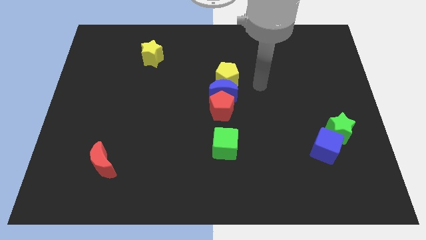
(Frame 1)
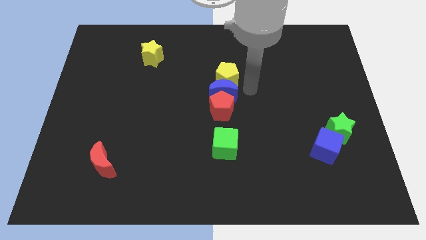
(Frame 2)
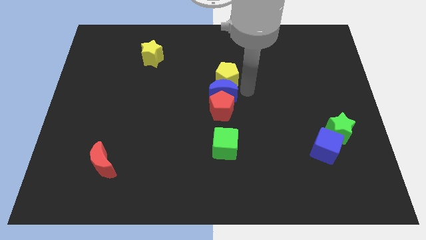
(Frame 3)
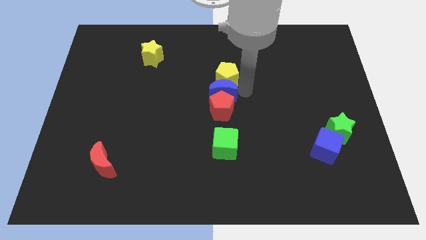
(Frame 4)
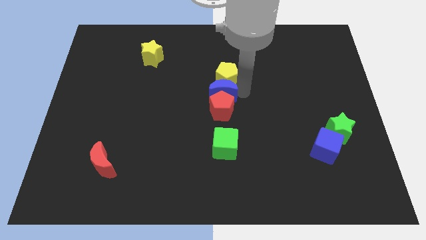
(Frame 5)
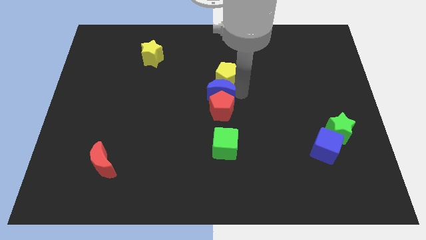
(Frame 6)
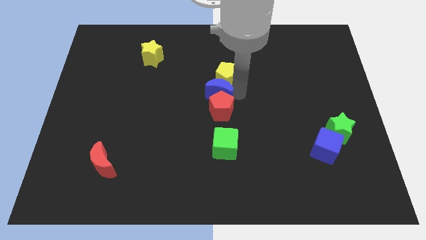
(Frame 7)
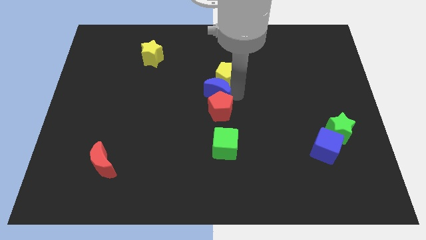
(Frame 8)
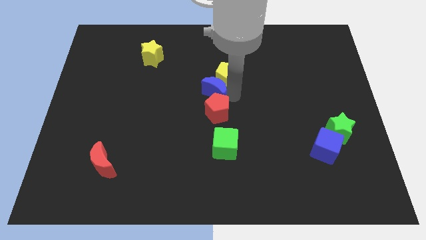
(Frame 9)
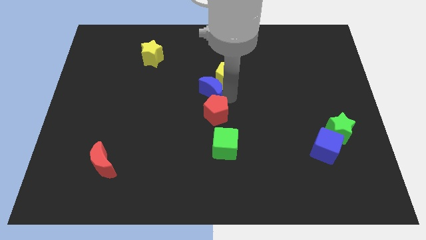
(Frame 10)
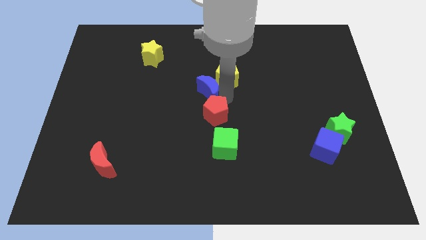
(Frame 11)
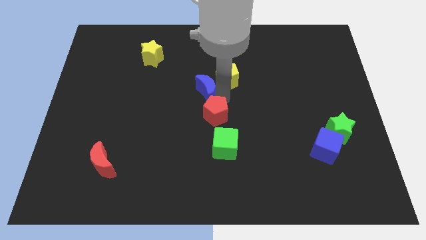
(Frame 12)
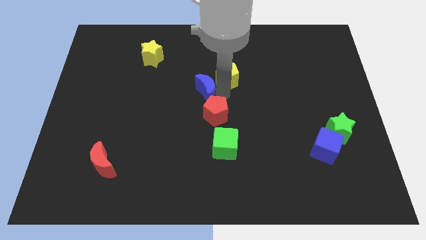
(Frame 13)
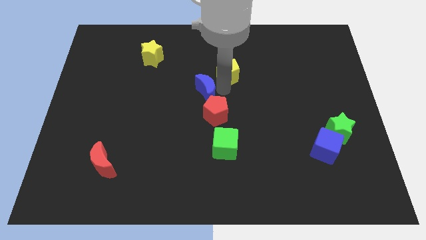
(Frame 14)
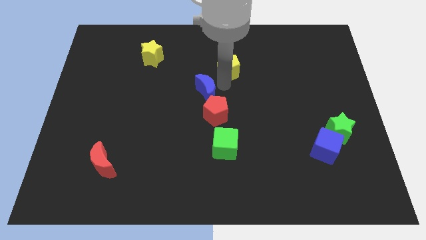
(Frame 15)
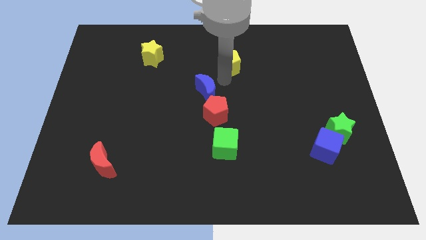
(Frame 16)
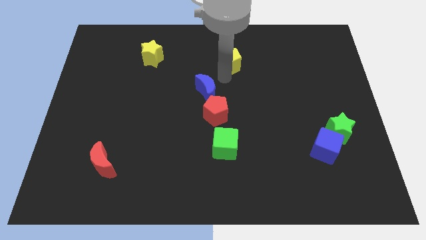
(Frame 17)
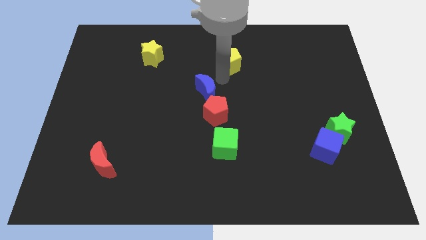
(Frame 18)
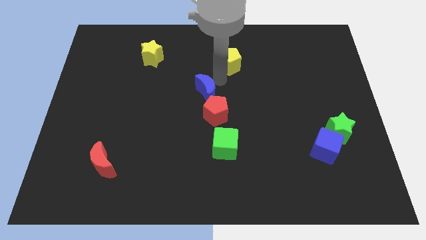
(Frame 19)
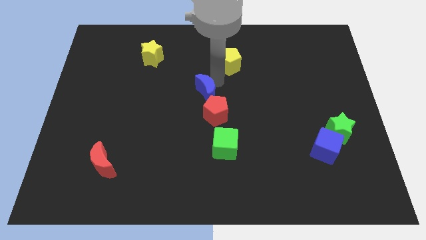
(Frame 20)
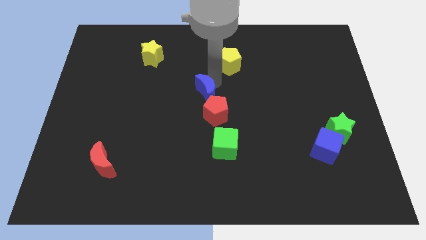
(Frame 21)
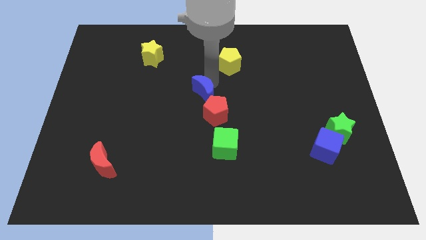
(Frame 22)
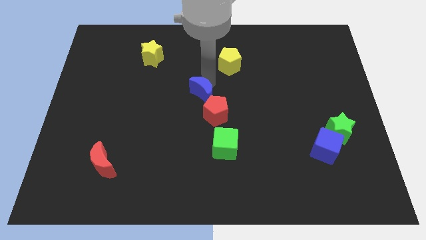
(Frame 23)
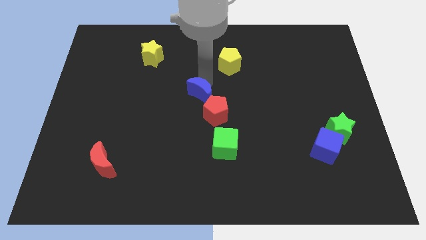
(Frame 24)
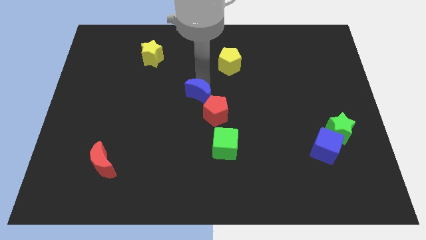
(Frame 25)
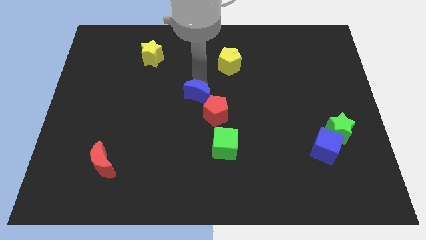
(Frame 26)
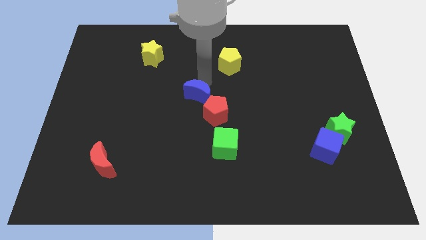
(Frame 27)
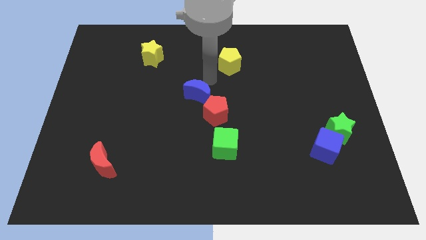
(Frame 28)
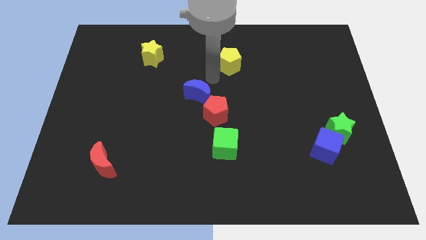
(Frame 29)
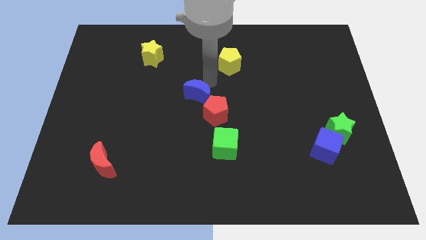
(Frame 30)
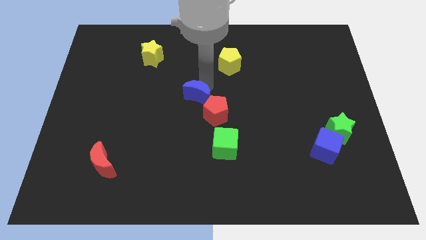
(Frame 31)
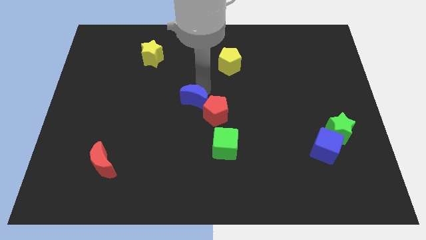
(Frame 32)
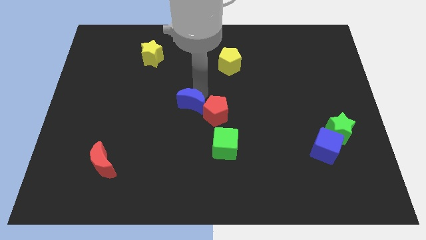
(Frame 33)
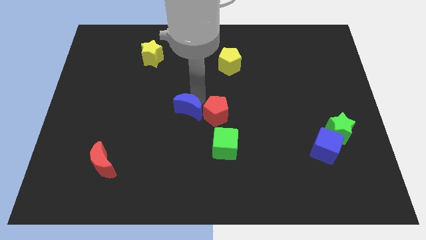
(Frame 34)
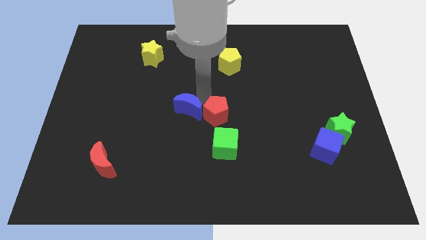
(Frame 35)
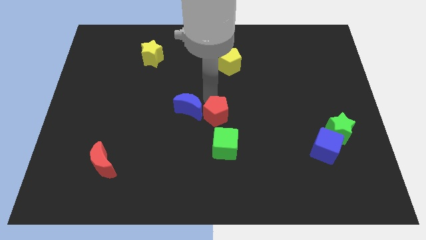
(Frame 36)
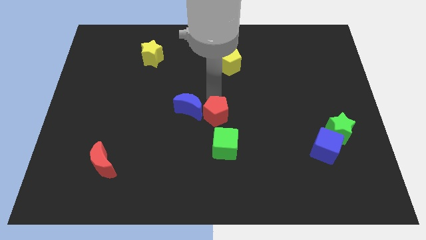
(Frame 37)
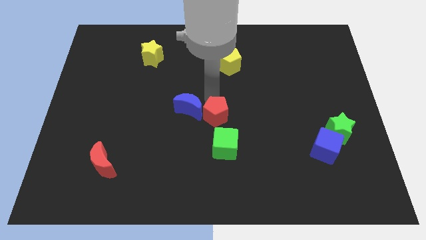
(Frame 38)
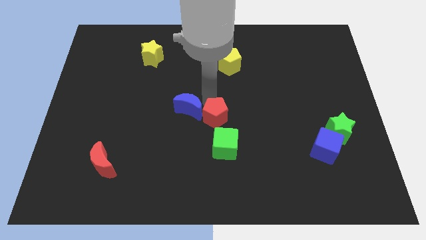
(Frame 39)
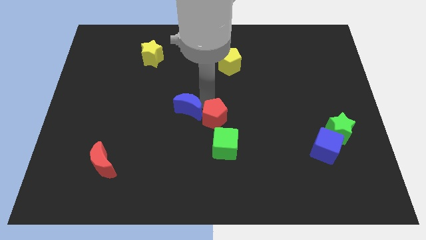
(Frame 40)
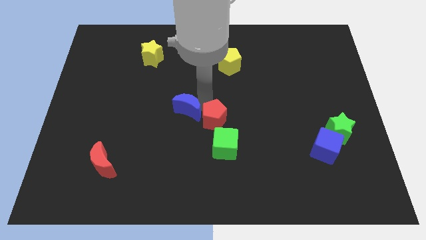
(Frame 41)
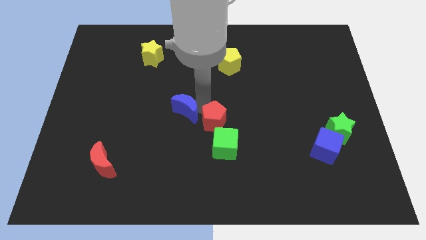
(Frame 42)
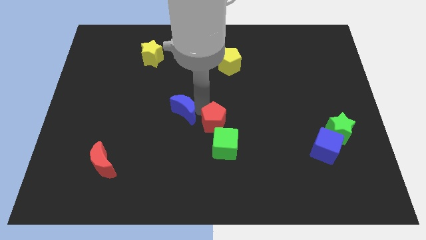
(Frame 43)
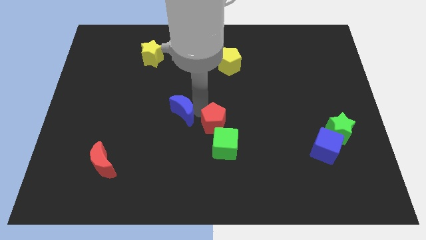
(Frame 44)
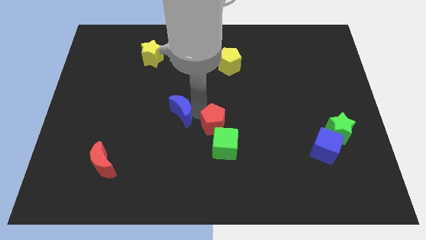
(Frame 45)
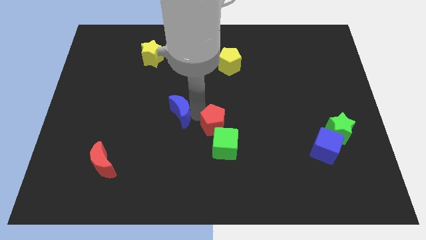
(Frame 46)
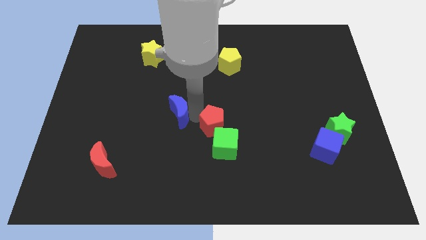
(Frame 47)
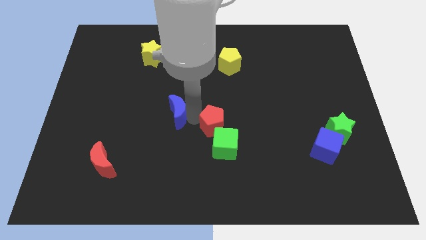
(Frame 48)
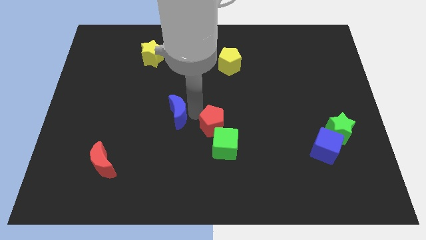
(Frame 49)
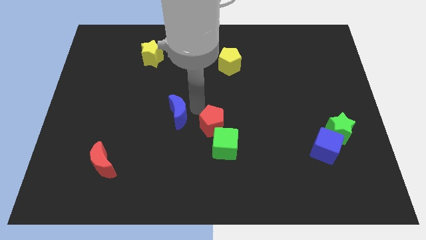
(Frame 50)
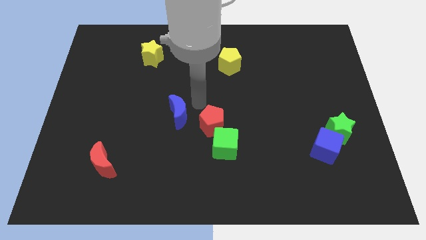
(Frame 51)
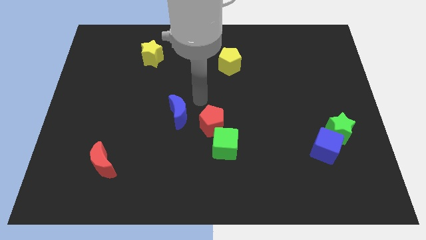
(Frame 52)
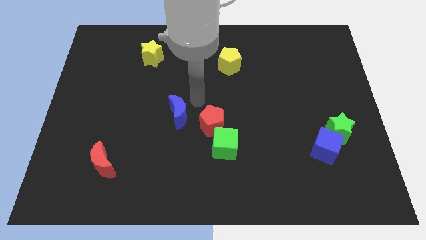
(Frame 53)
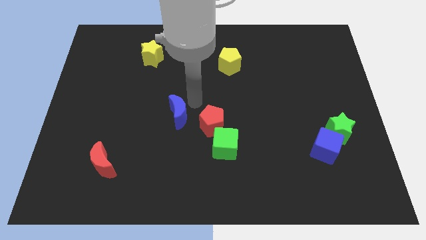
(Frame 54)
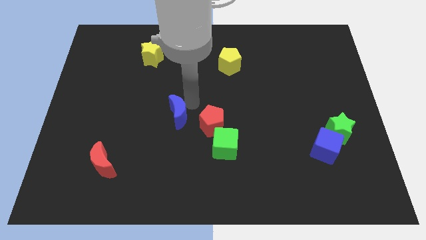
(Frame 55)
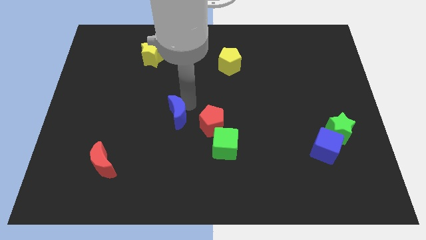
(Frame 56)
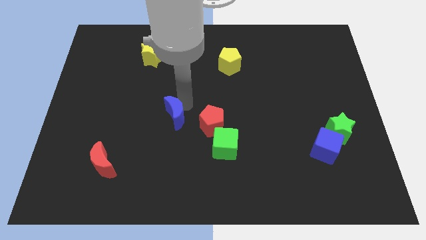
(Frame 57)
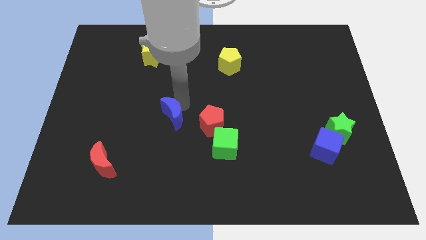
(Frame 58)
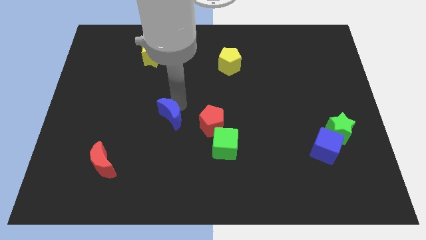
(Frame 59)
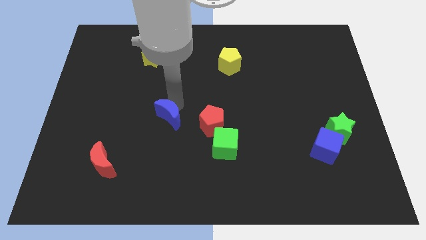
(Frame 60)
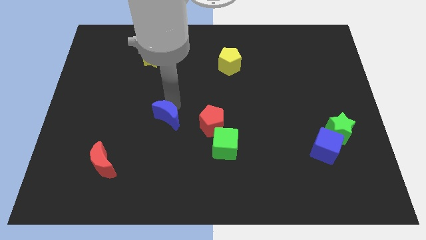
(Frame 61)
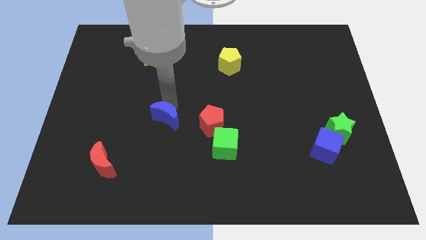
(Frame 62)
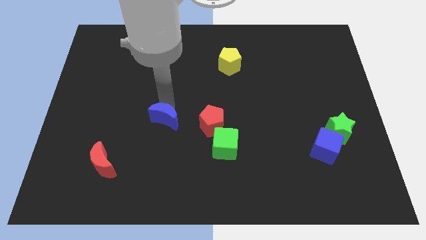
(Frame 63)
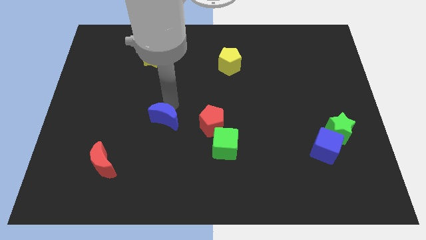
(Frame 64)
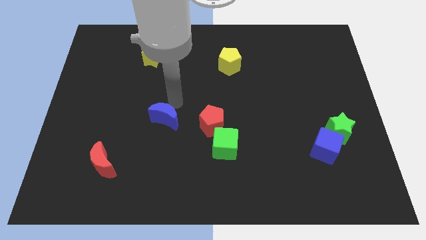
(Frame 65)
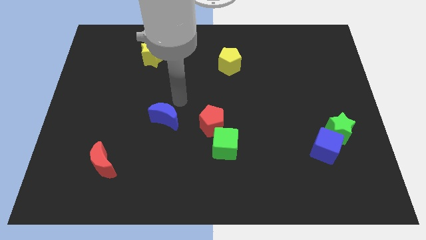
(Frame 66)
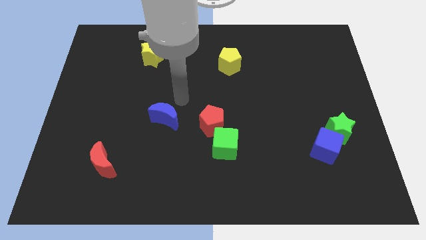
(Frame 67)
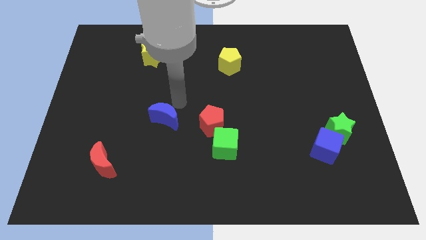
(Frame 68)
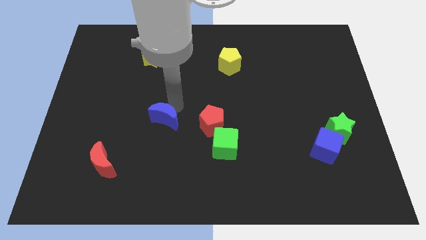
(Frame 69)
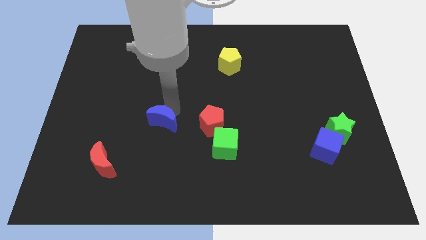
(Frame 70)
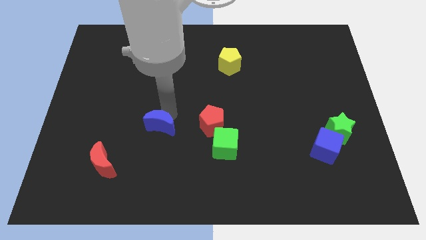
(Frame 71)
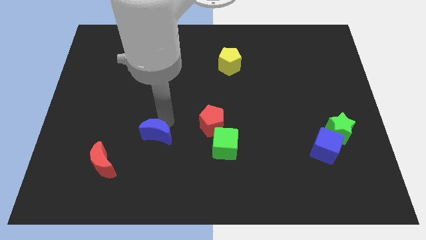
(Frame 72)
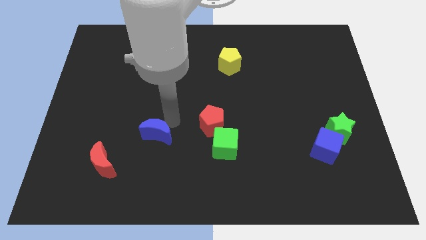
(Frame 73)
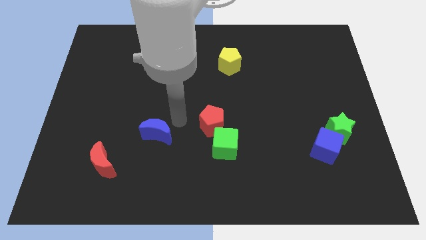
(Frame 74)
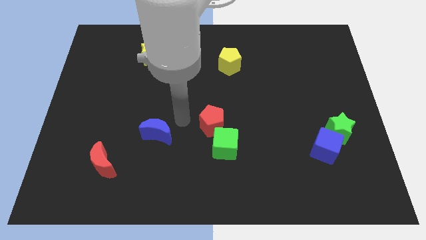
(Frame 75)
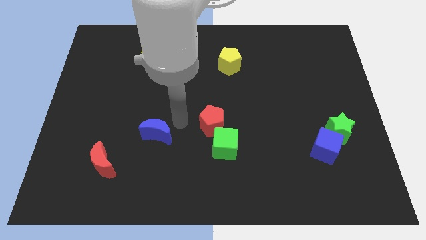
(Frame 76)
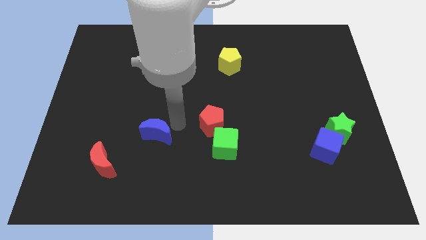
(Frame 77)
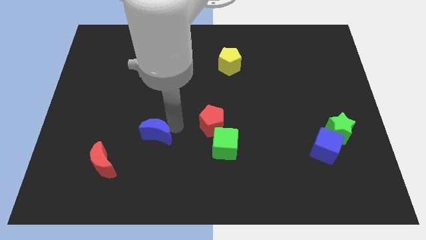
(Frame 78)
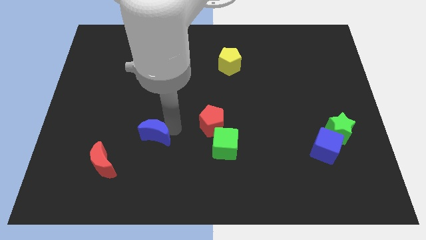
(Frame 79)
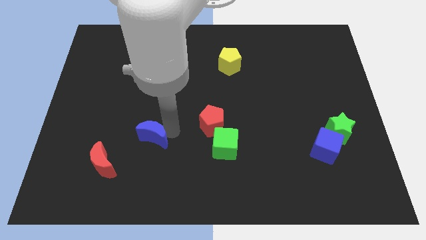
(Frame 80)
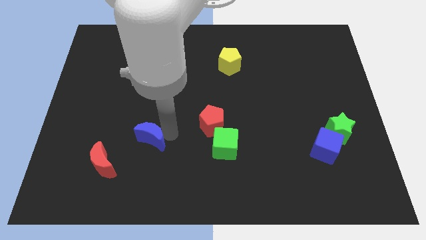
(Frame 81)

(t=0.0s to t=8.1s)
slide the blue moon downwards and to the left diagonally

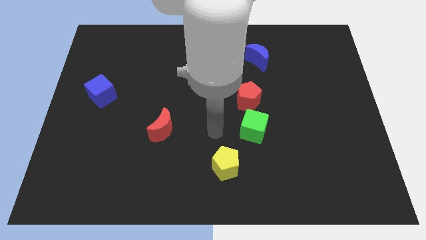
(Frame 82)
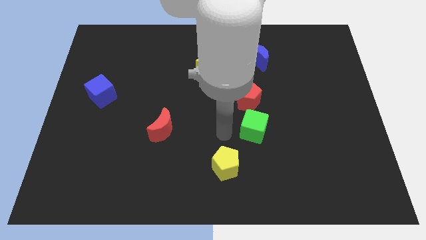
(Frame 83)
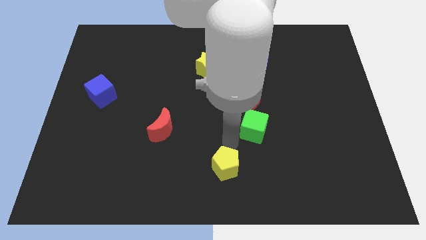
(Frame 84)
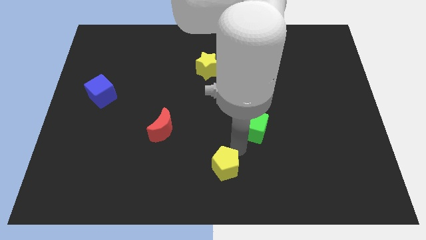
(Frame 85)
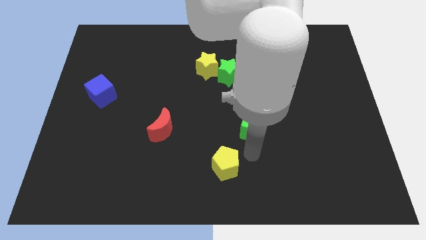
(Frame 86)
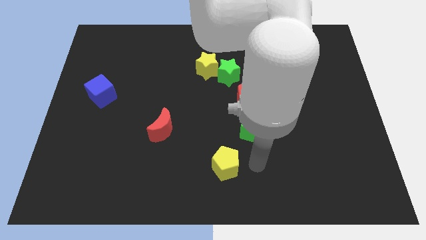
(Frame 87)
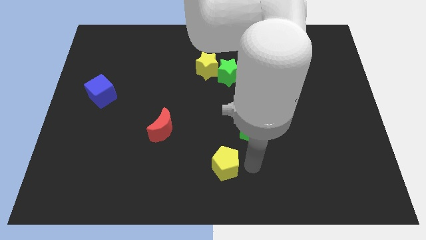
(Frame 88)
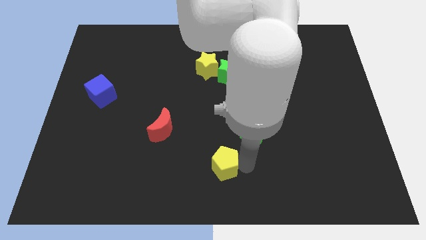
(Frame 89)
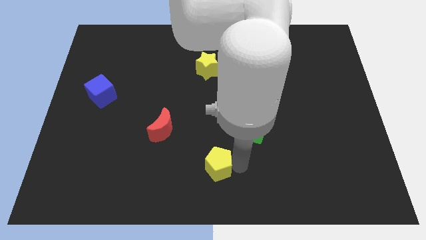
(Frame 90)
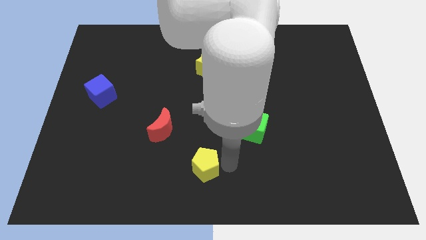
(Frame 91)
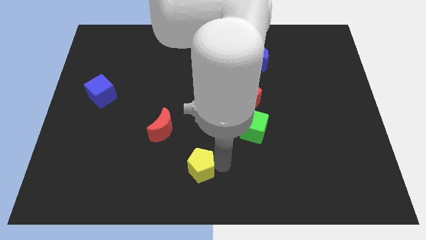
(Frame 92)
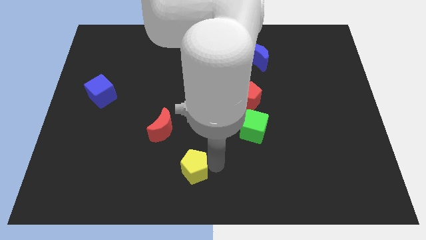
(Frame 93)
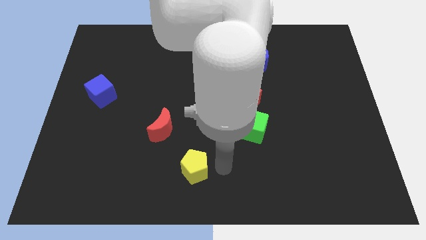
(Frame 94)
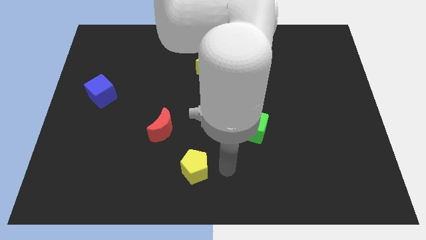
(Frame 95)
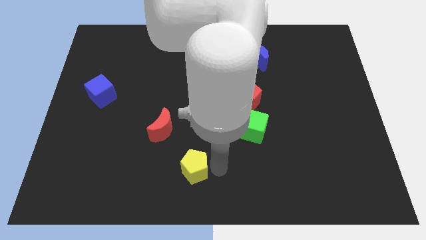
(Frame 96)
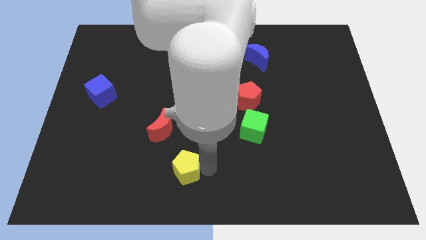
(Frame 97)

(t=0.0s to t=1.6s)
slide the yellow pentagon to the left somewhat
